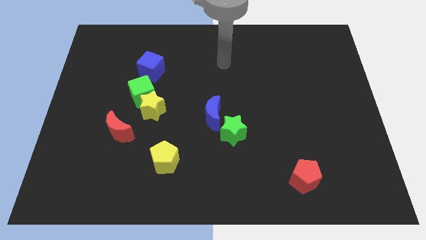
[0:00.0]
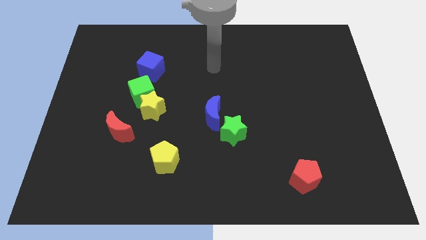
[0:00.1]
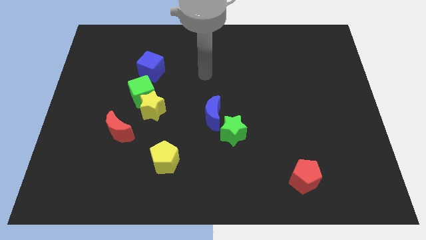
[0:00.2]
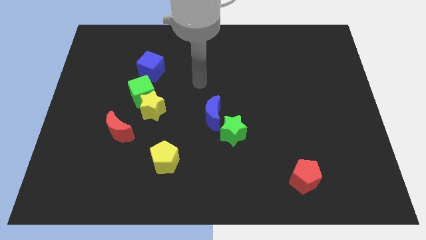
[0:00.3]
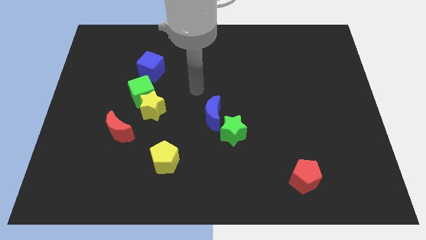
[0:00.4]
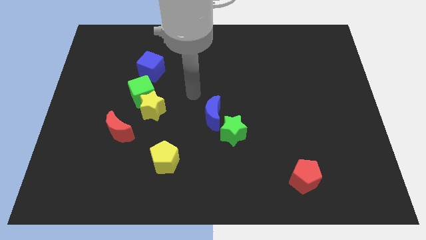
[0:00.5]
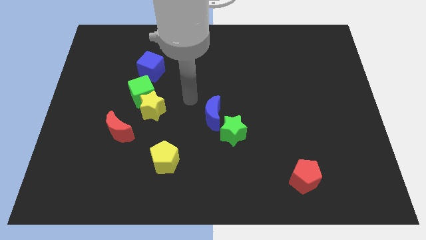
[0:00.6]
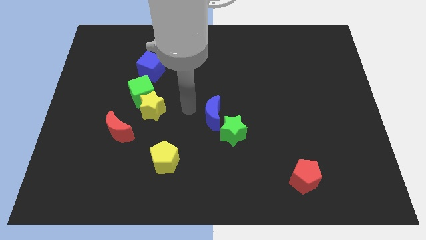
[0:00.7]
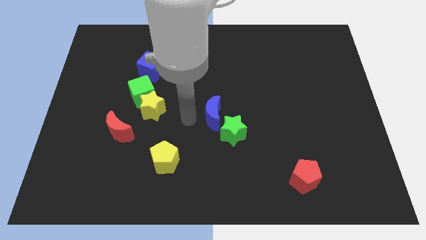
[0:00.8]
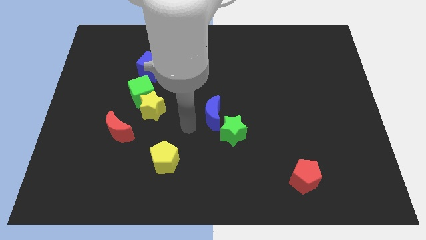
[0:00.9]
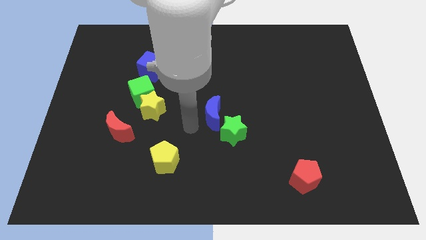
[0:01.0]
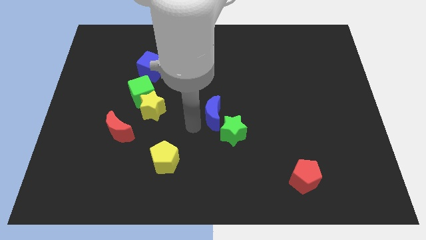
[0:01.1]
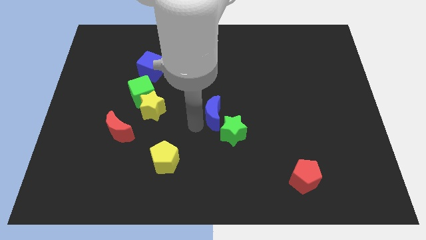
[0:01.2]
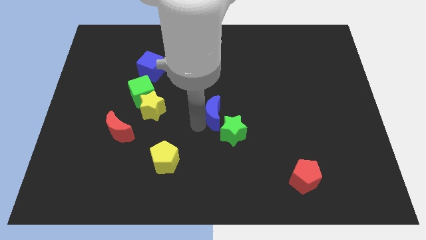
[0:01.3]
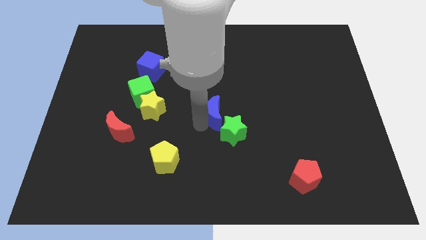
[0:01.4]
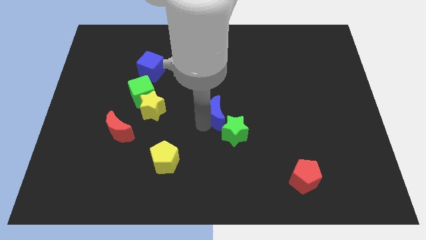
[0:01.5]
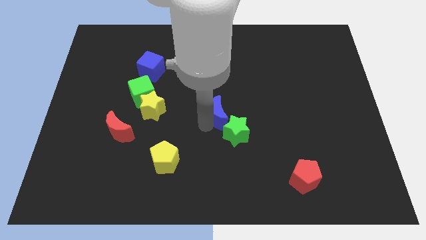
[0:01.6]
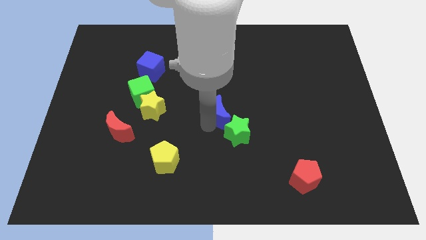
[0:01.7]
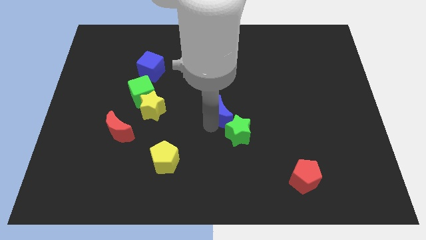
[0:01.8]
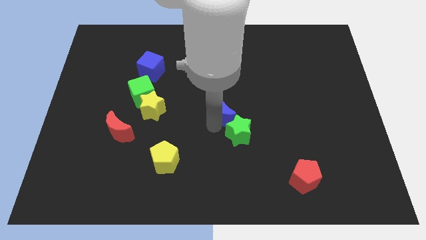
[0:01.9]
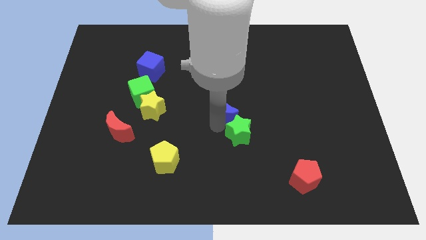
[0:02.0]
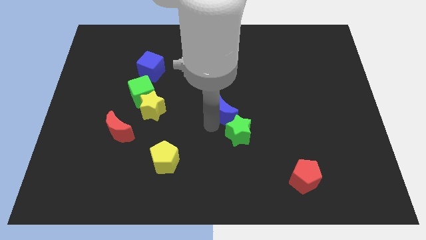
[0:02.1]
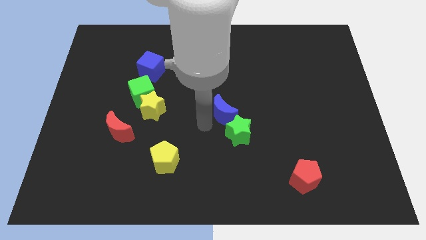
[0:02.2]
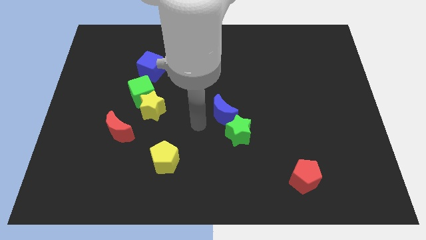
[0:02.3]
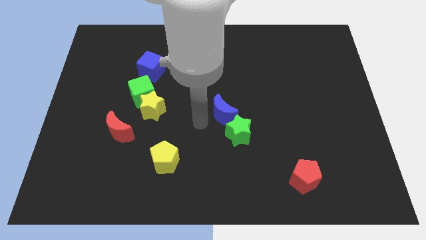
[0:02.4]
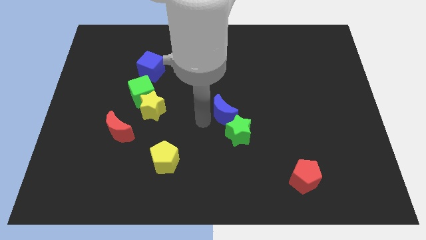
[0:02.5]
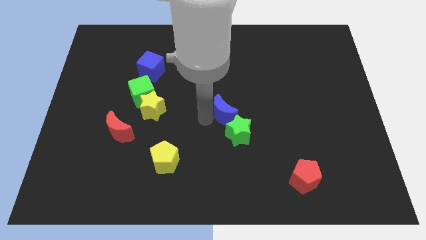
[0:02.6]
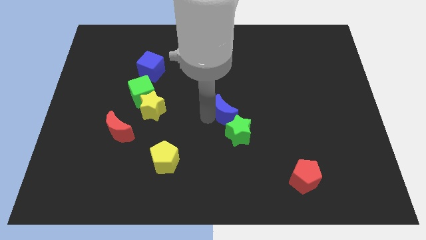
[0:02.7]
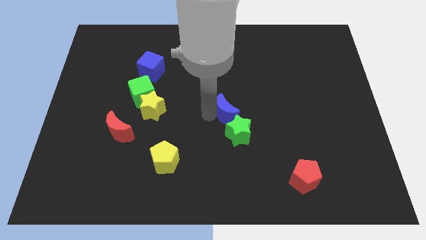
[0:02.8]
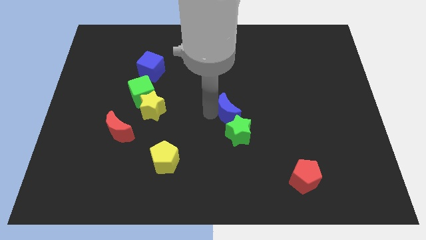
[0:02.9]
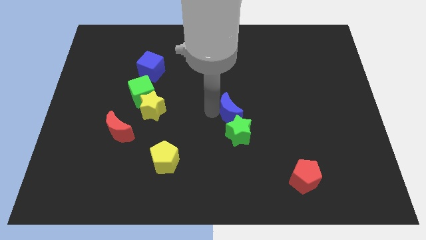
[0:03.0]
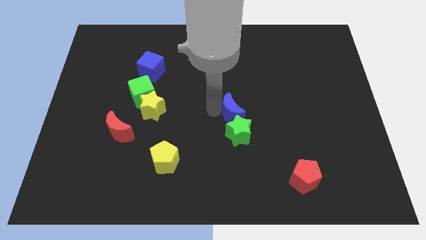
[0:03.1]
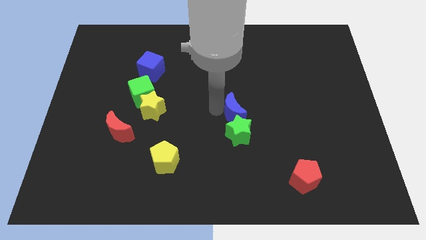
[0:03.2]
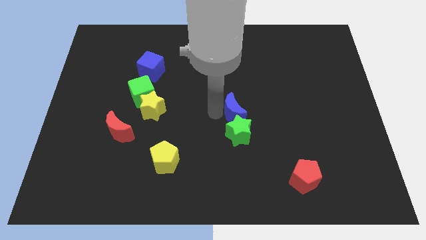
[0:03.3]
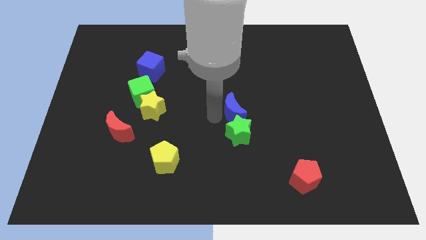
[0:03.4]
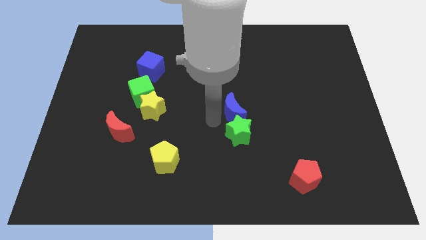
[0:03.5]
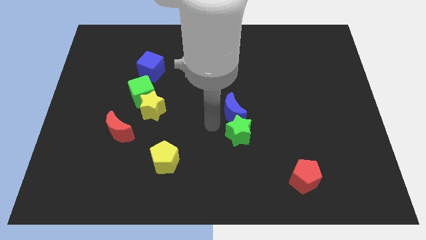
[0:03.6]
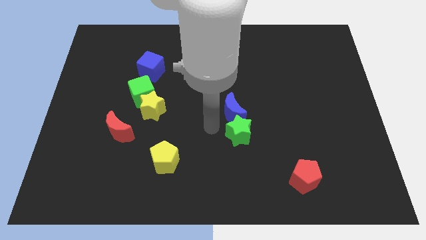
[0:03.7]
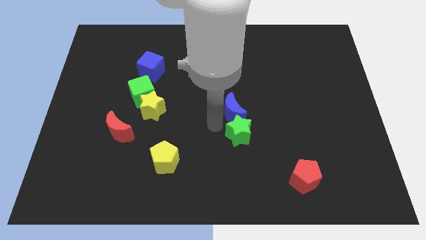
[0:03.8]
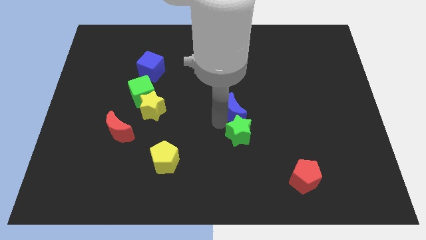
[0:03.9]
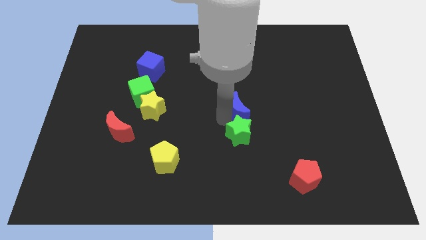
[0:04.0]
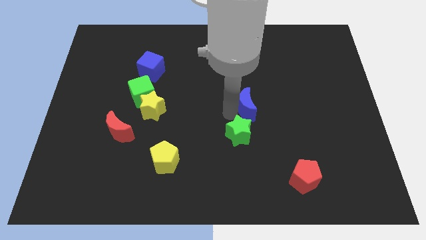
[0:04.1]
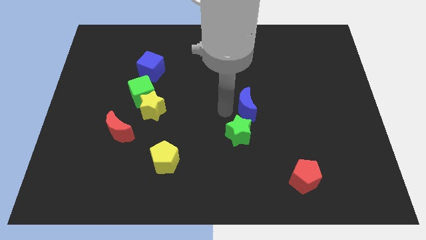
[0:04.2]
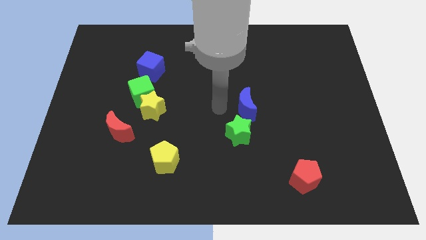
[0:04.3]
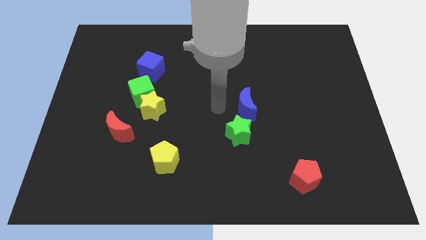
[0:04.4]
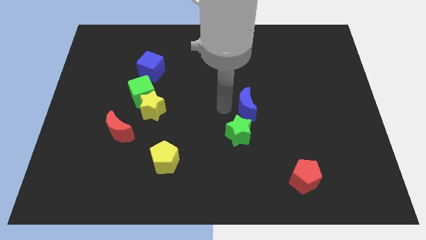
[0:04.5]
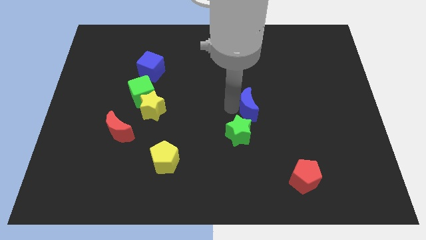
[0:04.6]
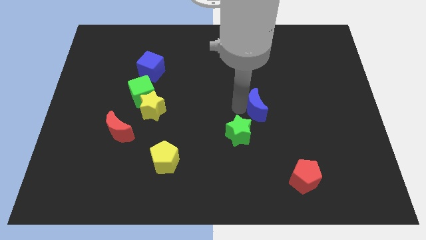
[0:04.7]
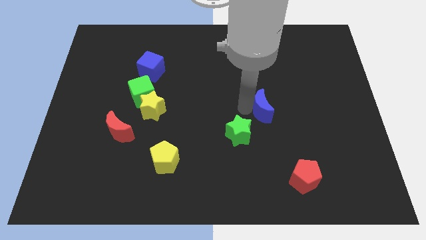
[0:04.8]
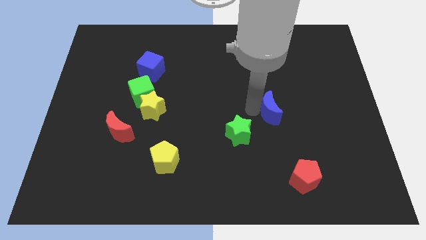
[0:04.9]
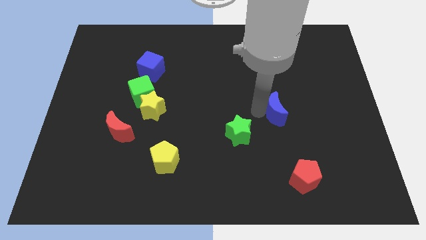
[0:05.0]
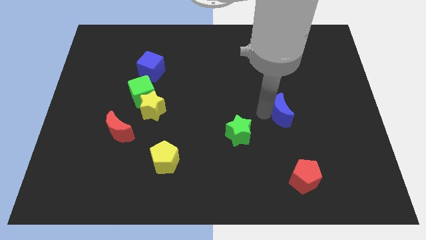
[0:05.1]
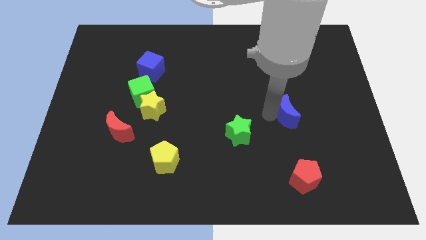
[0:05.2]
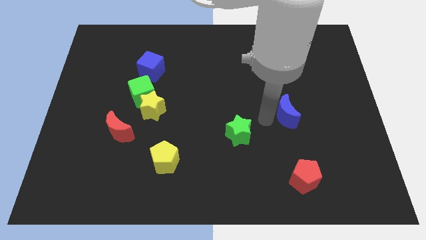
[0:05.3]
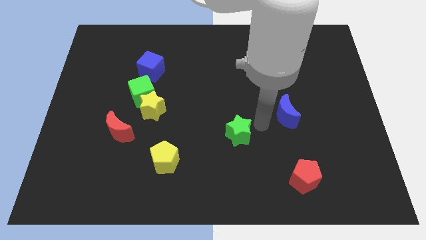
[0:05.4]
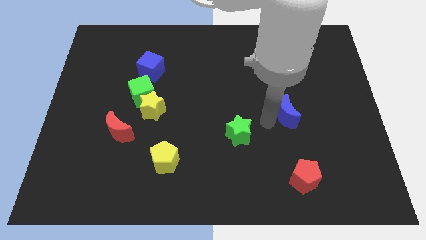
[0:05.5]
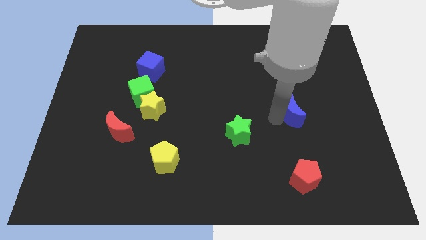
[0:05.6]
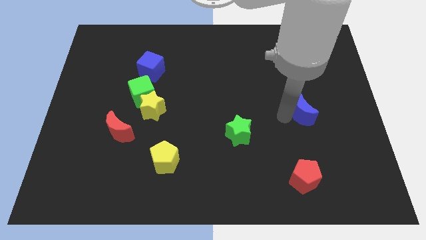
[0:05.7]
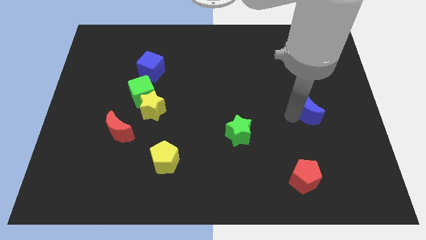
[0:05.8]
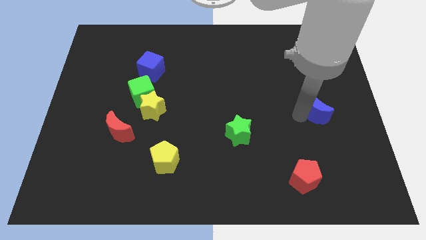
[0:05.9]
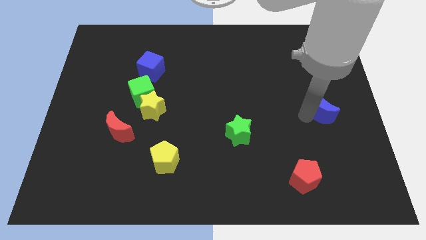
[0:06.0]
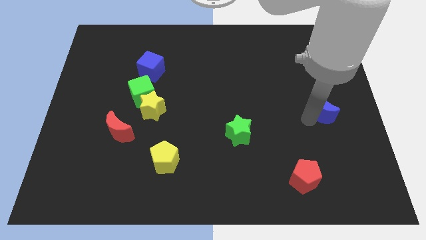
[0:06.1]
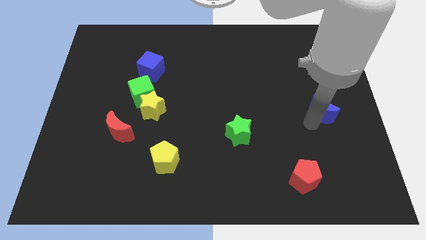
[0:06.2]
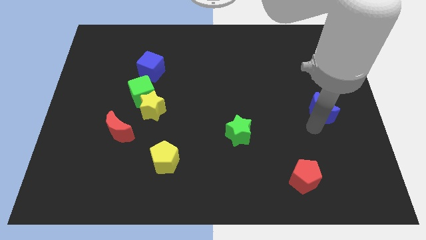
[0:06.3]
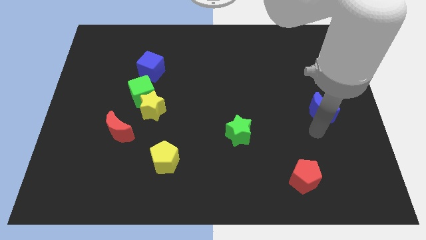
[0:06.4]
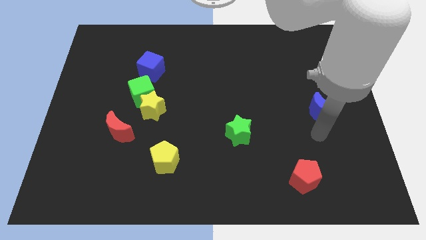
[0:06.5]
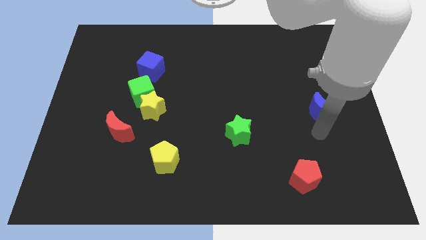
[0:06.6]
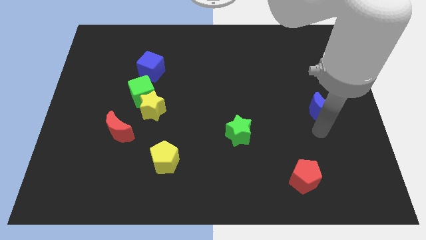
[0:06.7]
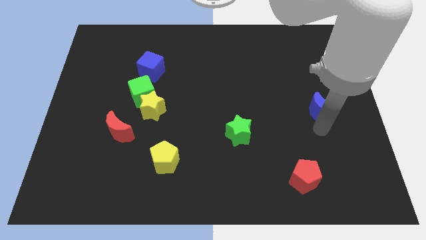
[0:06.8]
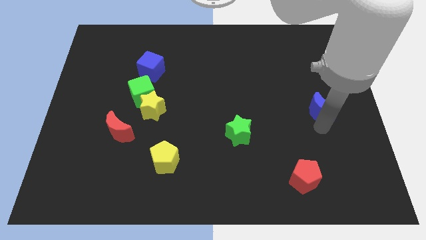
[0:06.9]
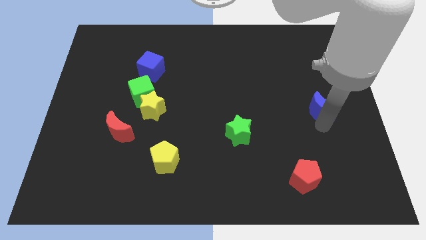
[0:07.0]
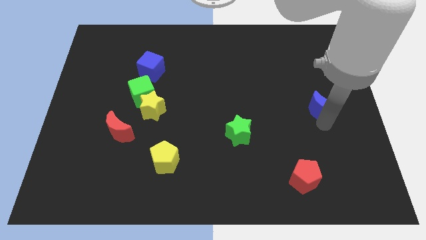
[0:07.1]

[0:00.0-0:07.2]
put the blue moon to the right side of the board
